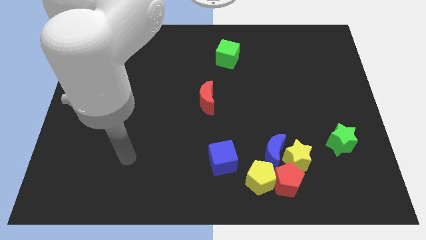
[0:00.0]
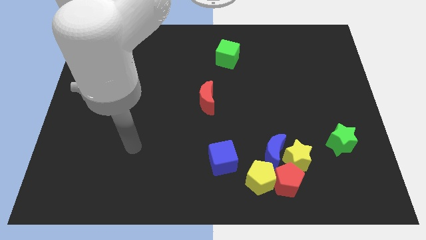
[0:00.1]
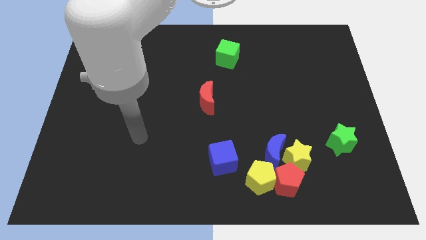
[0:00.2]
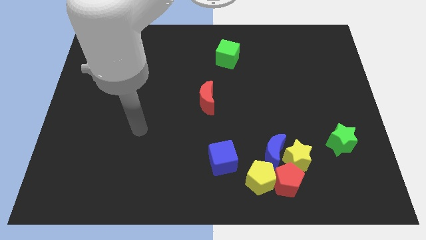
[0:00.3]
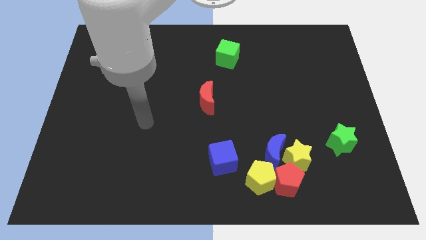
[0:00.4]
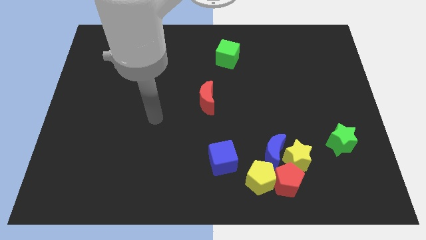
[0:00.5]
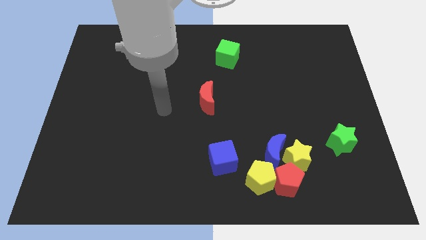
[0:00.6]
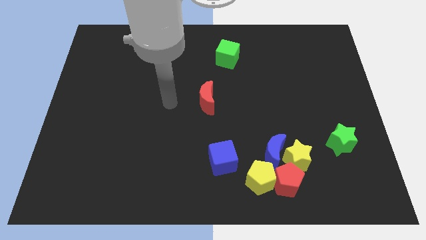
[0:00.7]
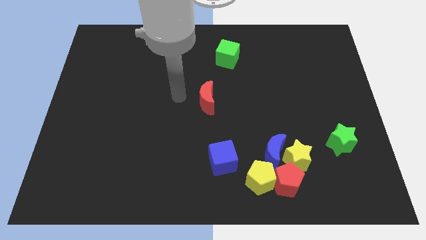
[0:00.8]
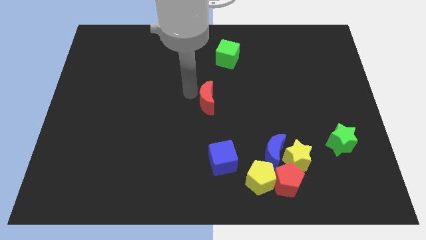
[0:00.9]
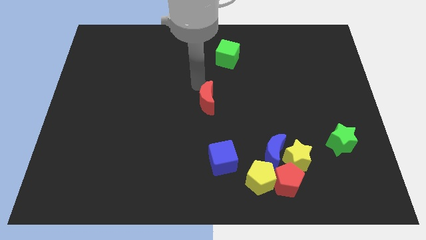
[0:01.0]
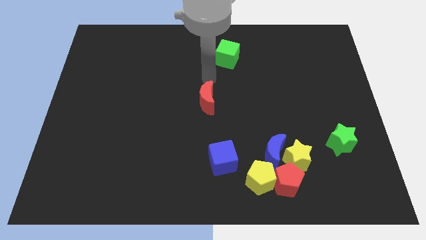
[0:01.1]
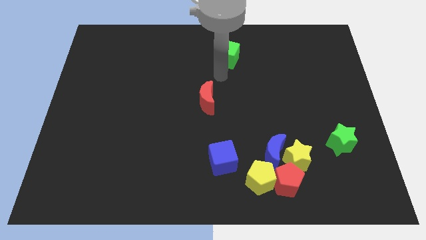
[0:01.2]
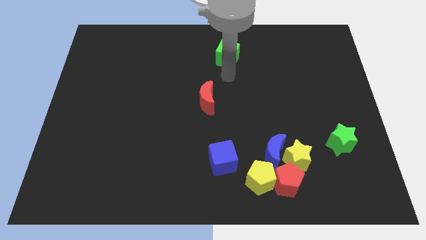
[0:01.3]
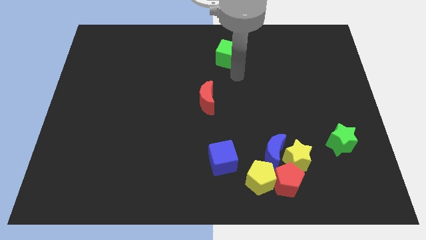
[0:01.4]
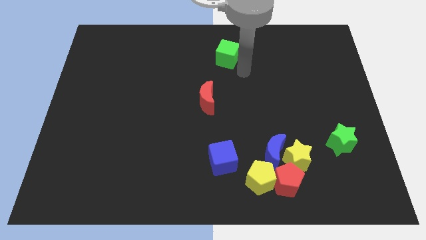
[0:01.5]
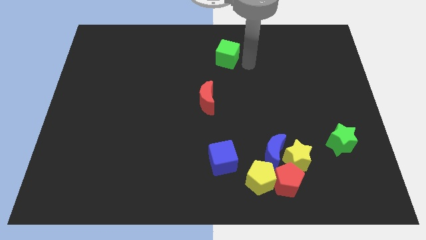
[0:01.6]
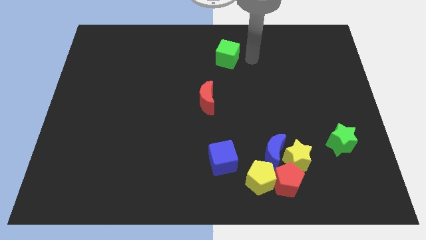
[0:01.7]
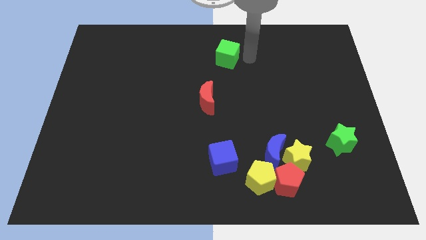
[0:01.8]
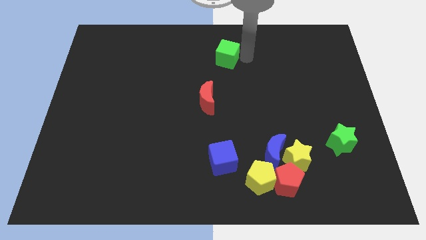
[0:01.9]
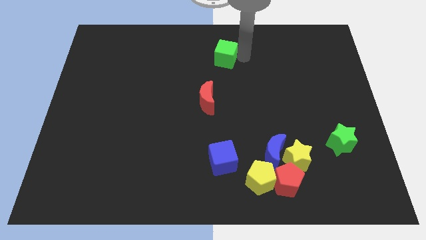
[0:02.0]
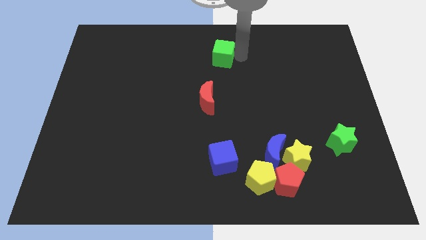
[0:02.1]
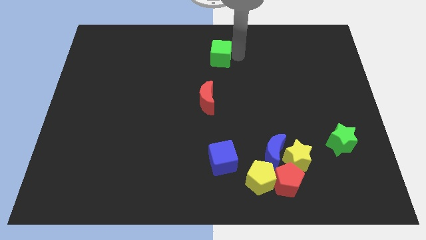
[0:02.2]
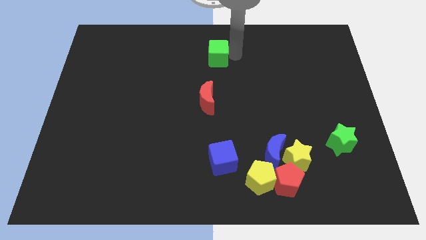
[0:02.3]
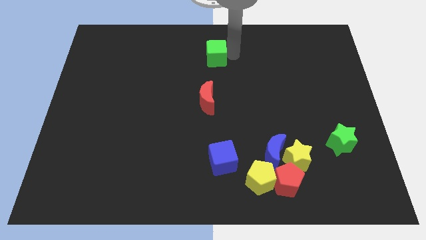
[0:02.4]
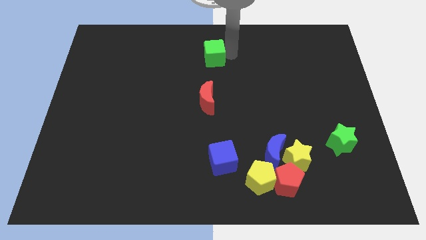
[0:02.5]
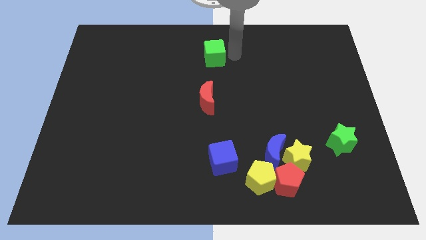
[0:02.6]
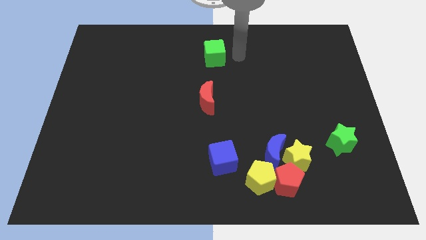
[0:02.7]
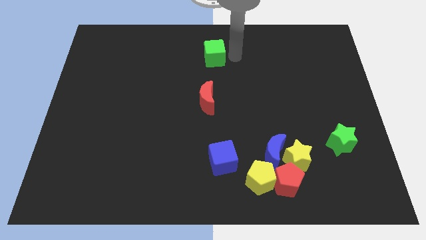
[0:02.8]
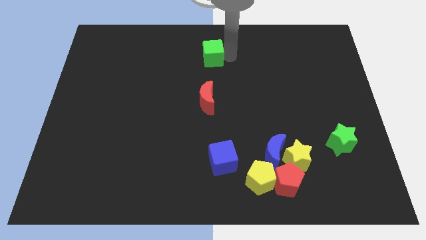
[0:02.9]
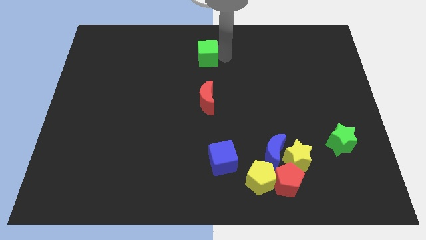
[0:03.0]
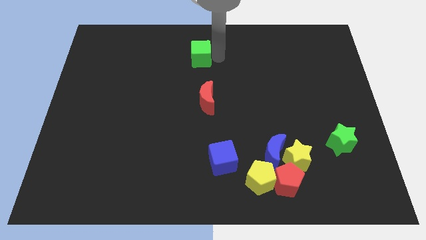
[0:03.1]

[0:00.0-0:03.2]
slide the green cube slightly left

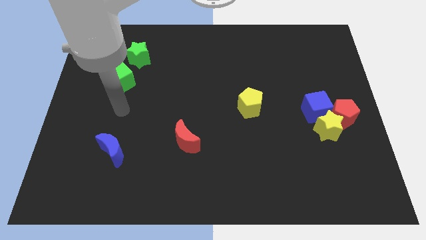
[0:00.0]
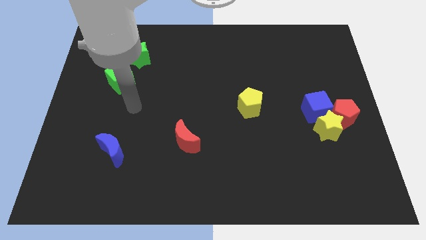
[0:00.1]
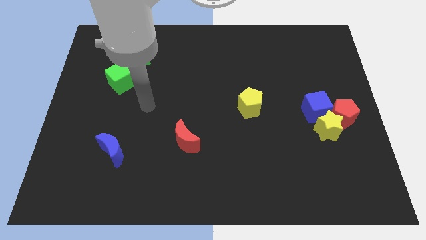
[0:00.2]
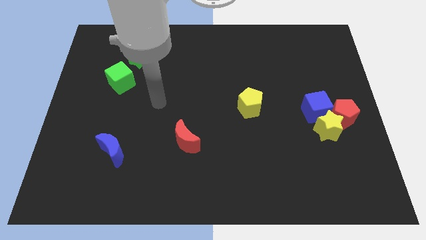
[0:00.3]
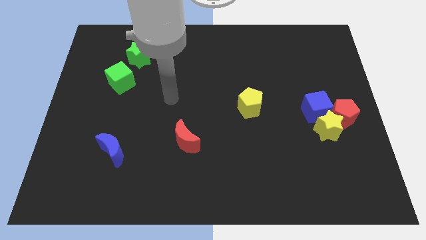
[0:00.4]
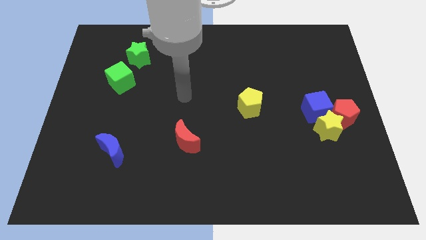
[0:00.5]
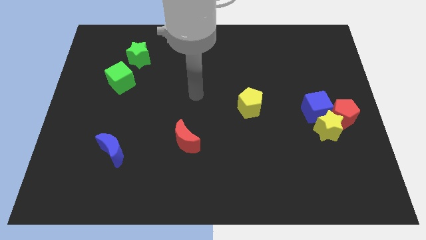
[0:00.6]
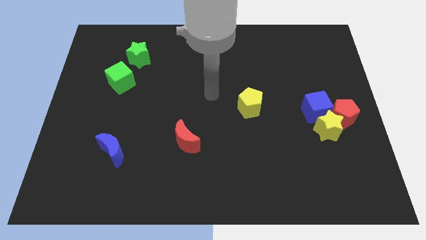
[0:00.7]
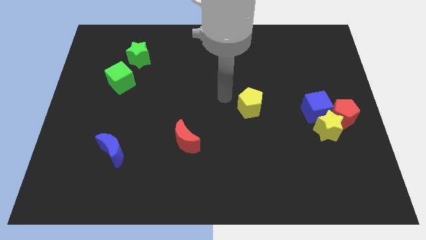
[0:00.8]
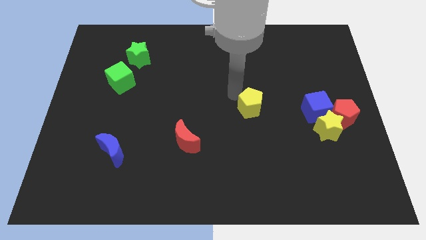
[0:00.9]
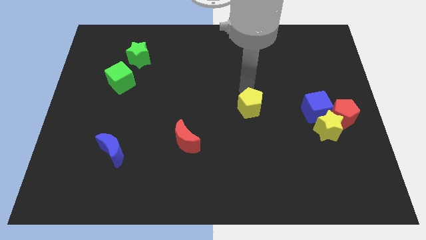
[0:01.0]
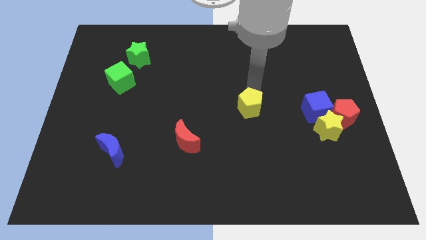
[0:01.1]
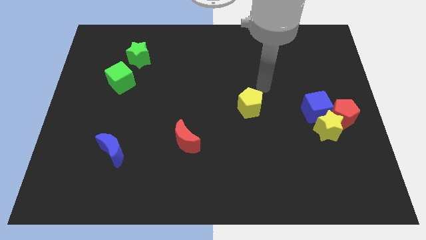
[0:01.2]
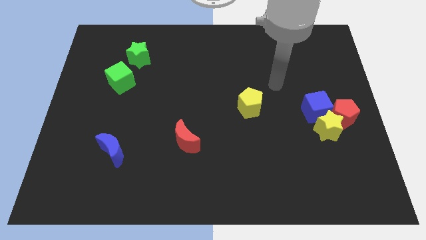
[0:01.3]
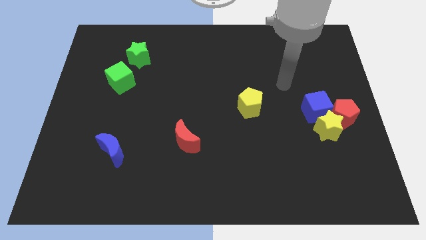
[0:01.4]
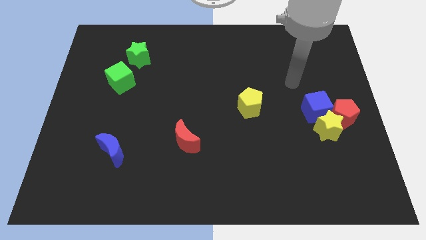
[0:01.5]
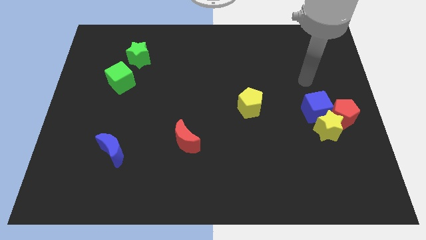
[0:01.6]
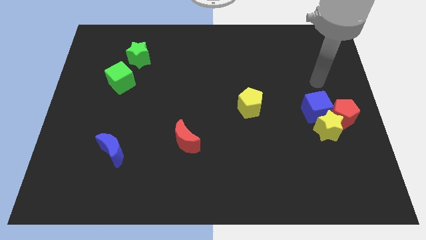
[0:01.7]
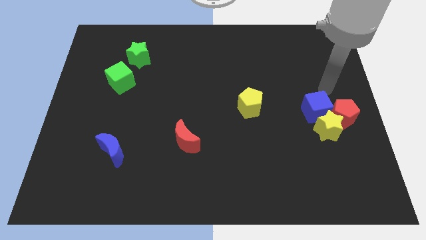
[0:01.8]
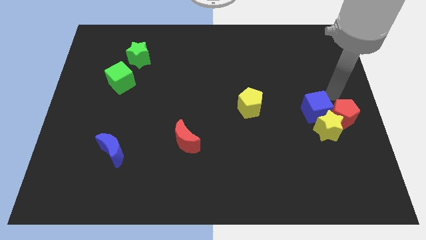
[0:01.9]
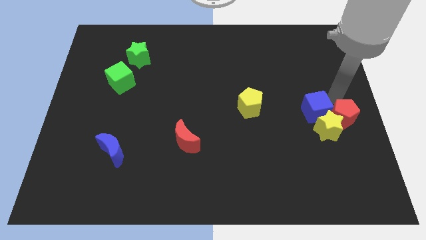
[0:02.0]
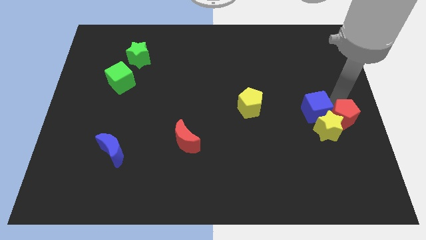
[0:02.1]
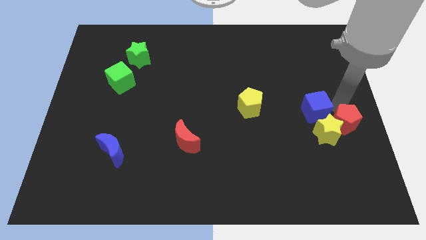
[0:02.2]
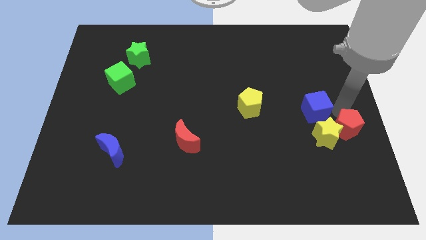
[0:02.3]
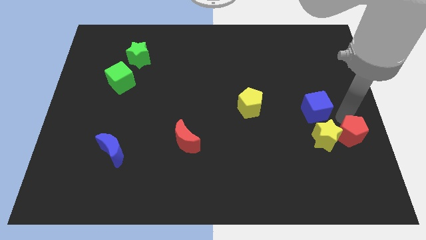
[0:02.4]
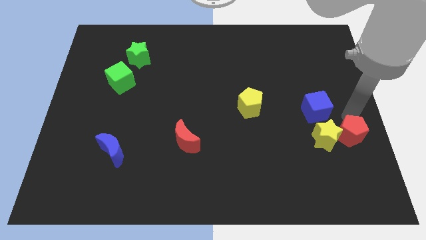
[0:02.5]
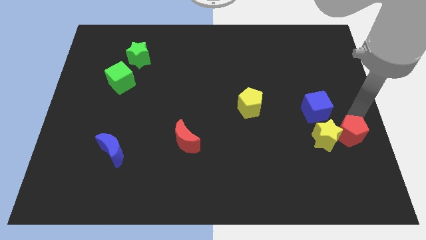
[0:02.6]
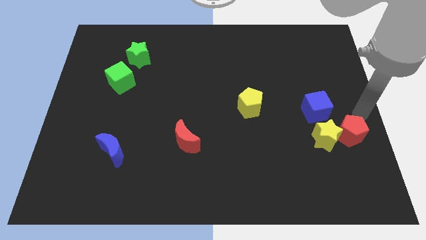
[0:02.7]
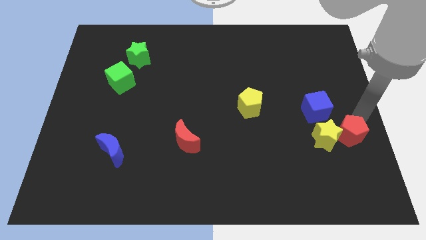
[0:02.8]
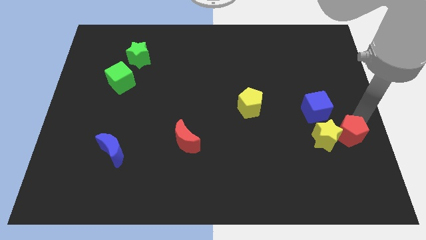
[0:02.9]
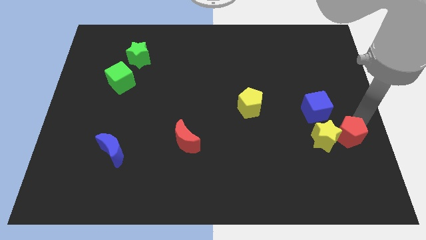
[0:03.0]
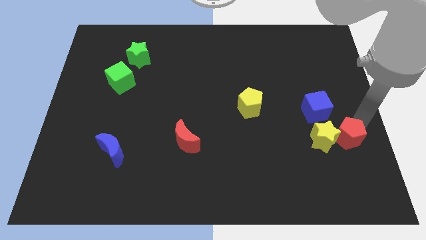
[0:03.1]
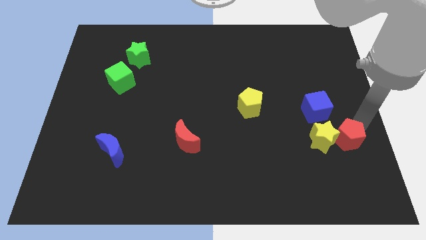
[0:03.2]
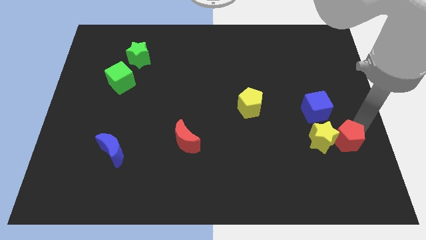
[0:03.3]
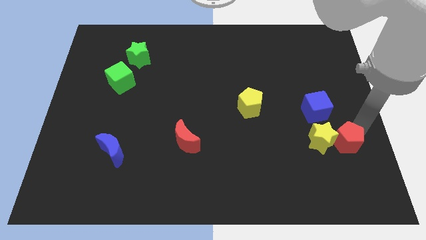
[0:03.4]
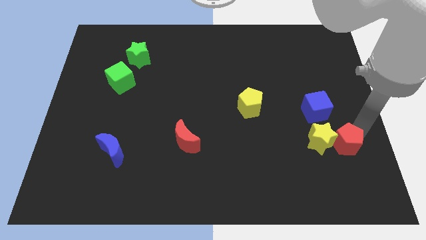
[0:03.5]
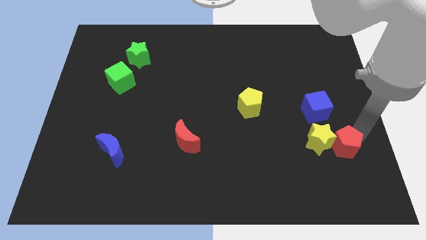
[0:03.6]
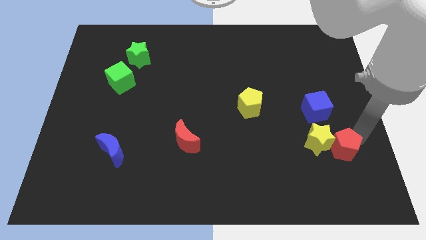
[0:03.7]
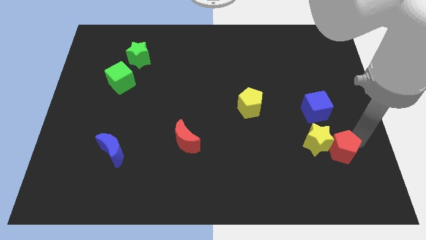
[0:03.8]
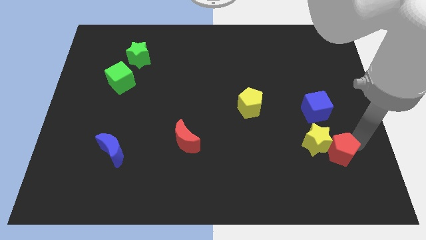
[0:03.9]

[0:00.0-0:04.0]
slightly push the red pentagon downwards and to the left diagonally

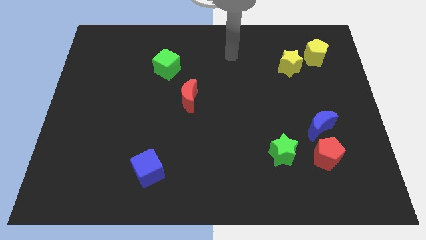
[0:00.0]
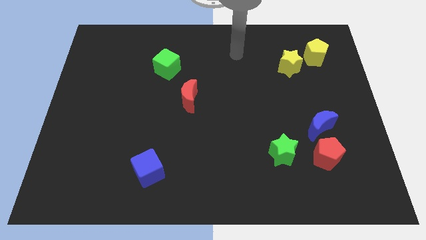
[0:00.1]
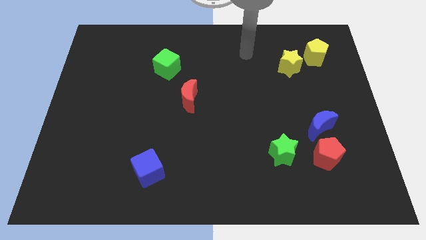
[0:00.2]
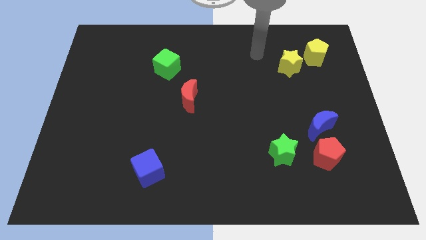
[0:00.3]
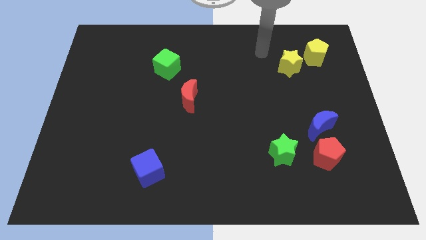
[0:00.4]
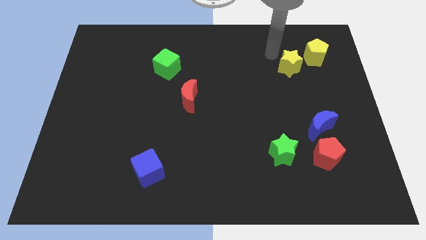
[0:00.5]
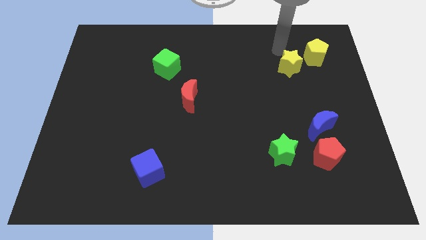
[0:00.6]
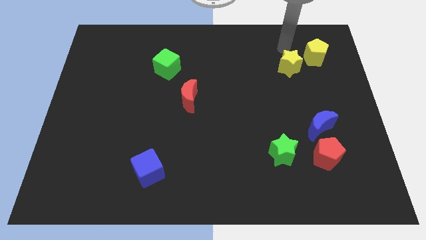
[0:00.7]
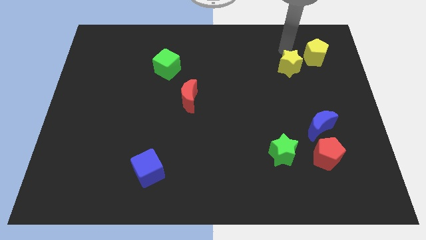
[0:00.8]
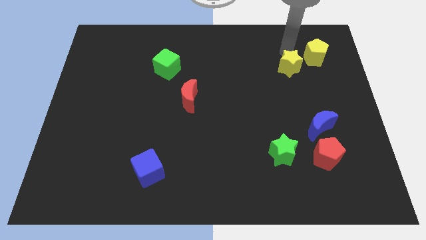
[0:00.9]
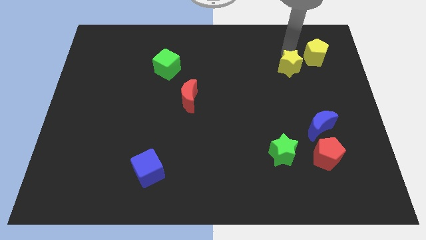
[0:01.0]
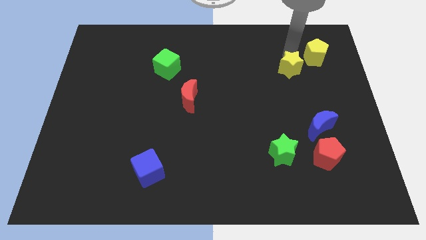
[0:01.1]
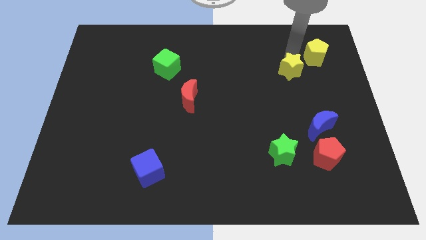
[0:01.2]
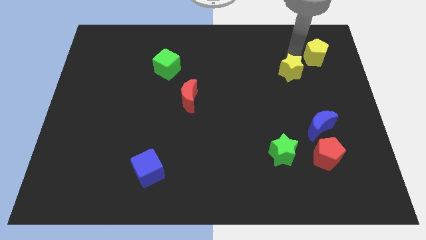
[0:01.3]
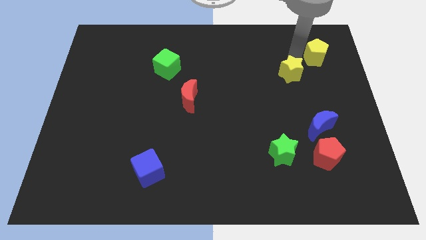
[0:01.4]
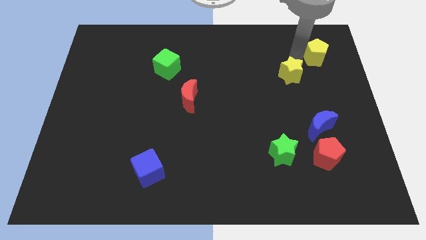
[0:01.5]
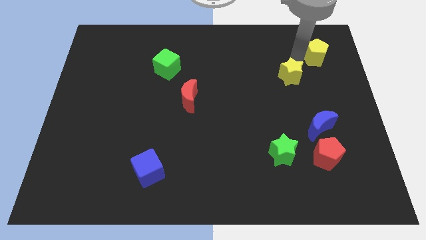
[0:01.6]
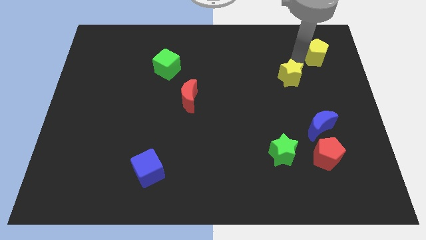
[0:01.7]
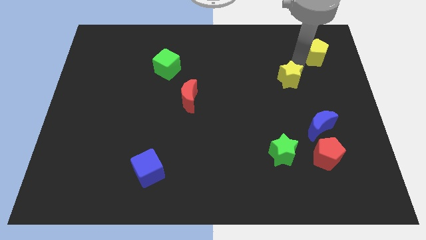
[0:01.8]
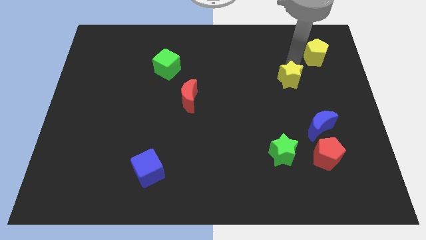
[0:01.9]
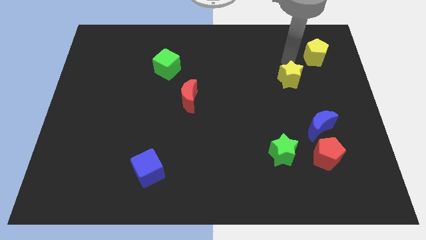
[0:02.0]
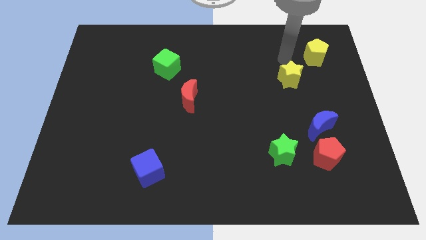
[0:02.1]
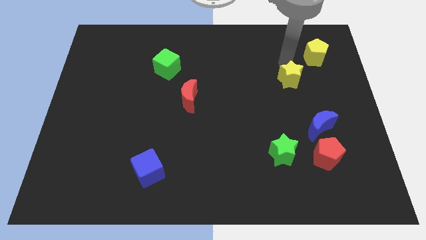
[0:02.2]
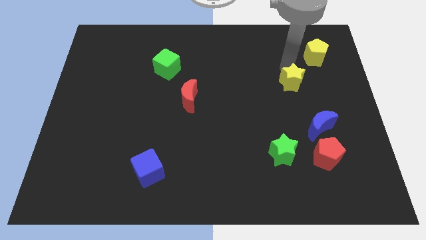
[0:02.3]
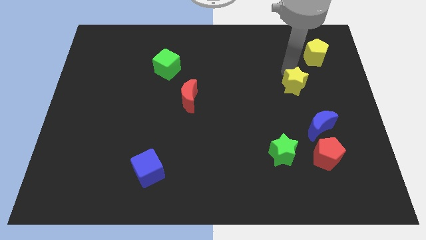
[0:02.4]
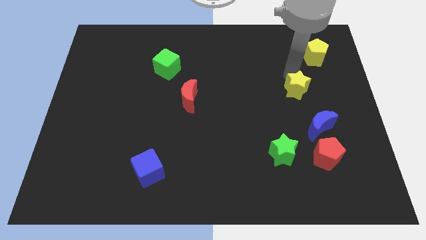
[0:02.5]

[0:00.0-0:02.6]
slightly move the yellow star downwards
